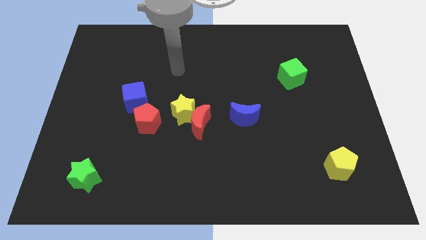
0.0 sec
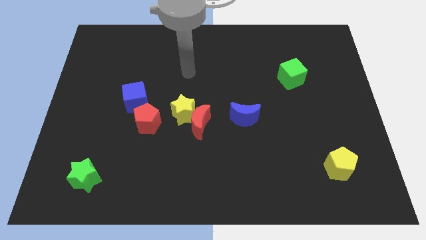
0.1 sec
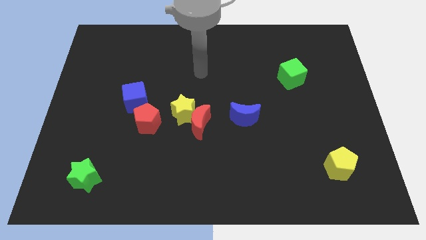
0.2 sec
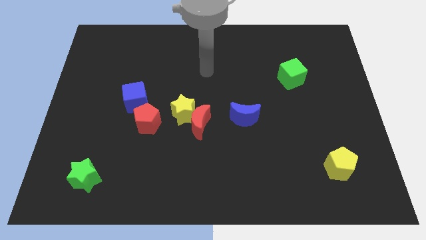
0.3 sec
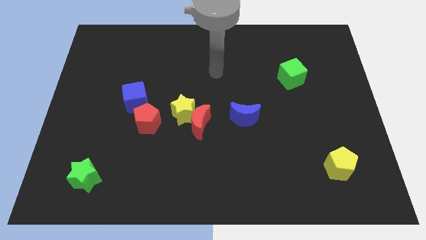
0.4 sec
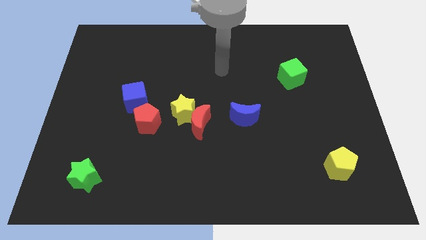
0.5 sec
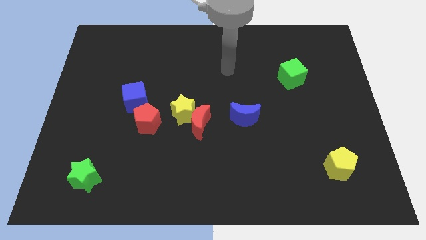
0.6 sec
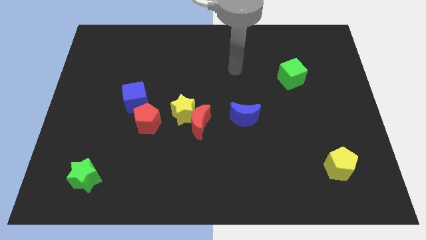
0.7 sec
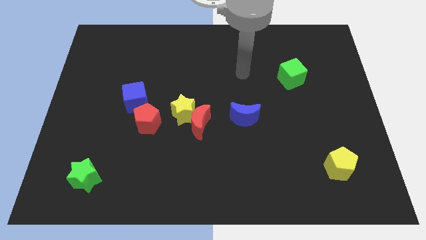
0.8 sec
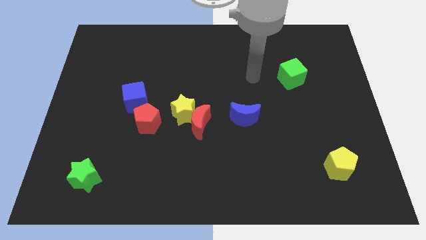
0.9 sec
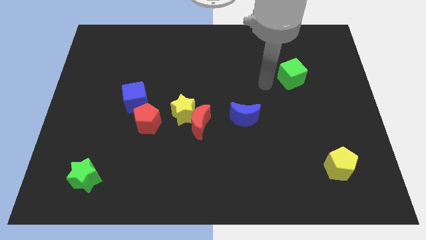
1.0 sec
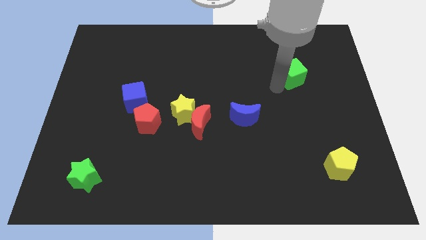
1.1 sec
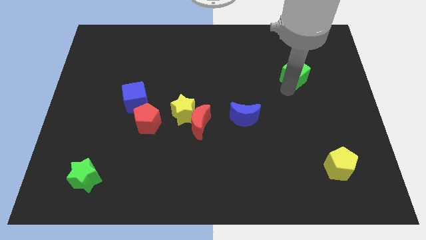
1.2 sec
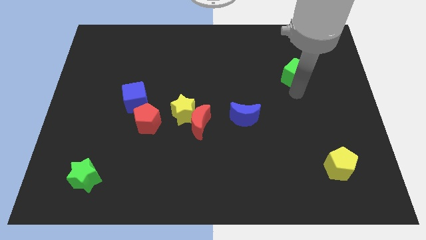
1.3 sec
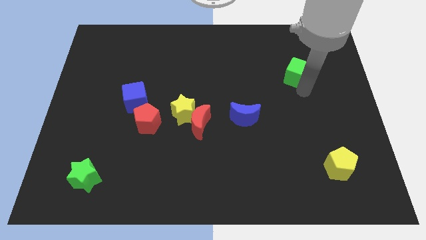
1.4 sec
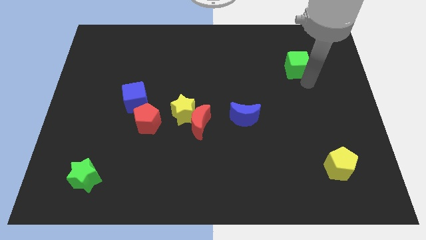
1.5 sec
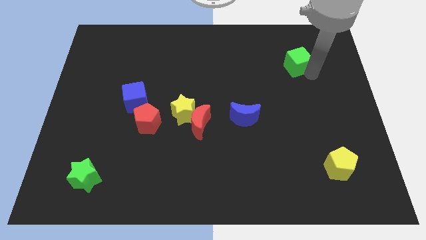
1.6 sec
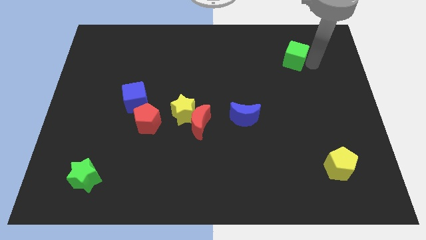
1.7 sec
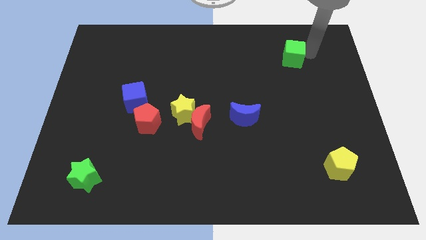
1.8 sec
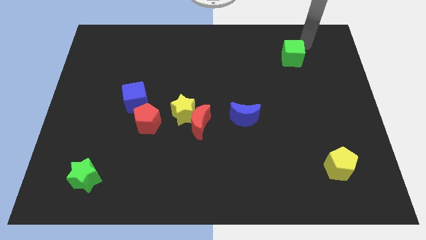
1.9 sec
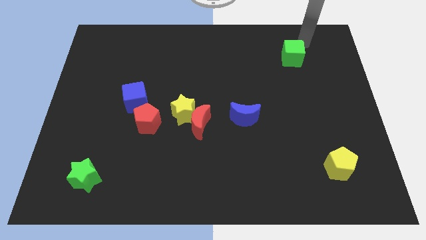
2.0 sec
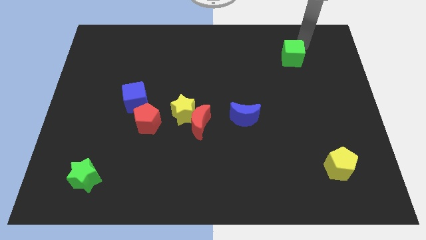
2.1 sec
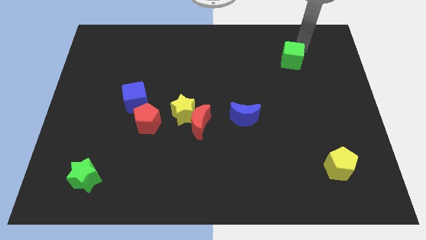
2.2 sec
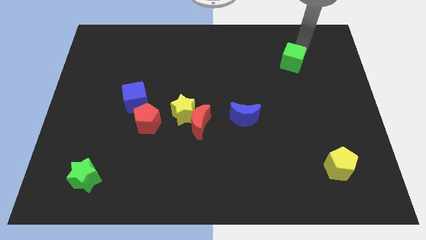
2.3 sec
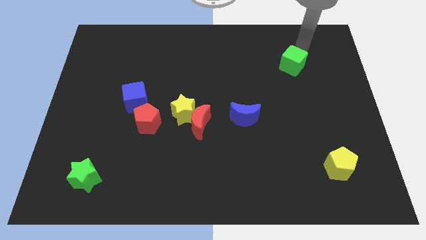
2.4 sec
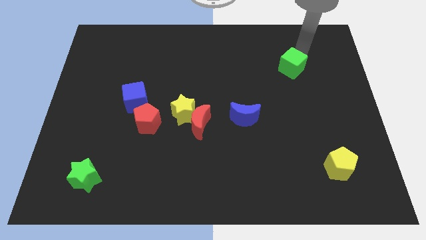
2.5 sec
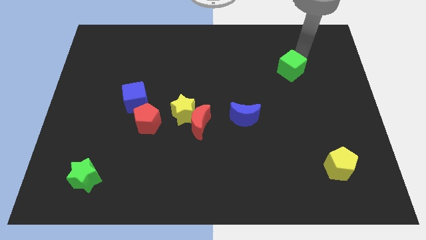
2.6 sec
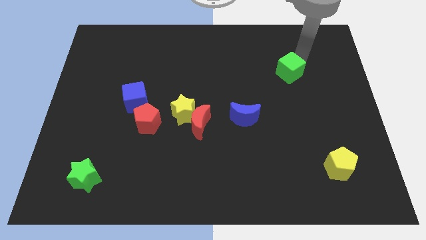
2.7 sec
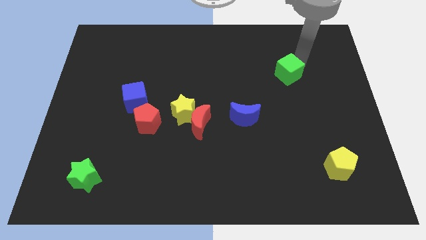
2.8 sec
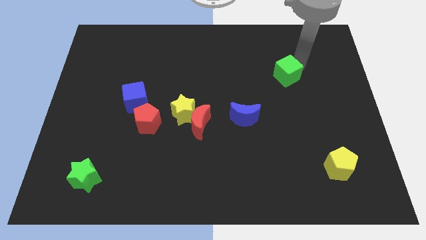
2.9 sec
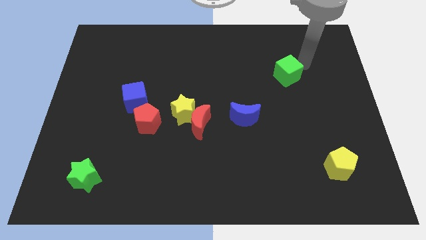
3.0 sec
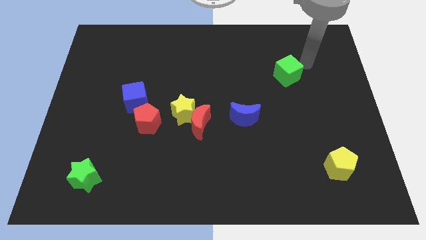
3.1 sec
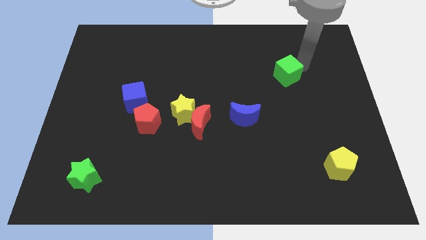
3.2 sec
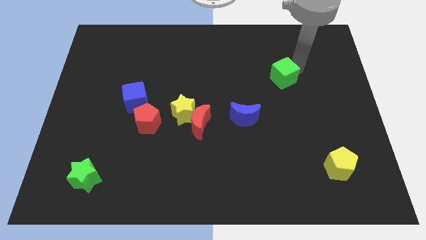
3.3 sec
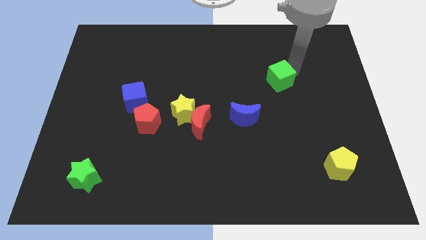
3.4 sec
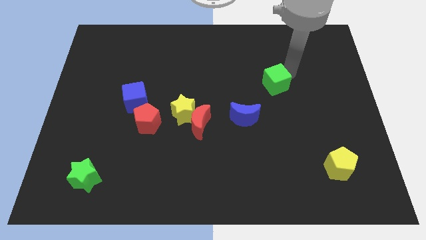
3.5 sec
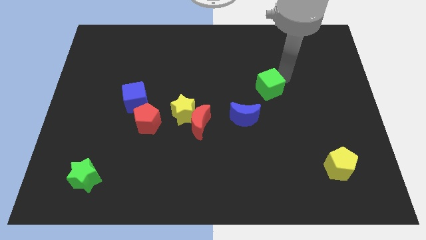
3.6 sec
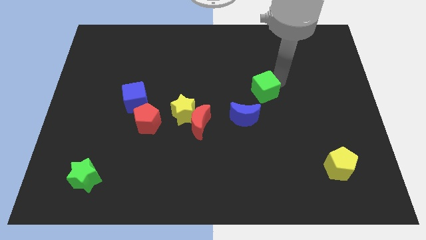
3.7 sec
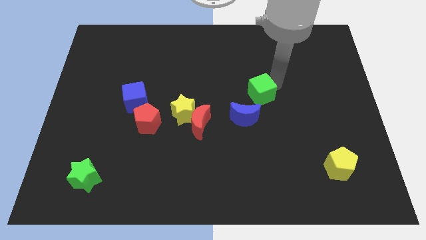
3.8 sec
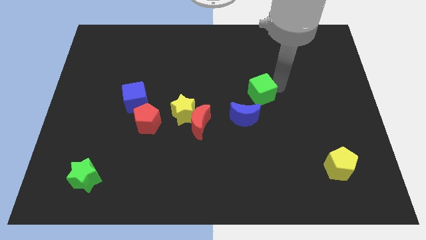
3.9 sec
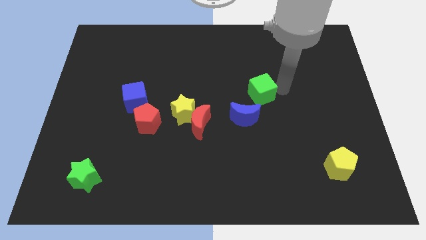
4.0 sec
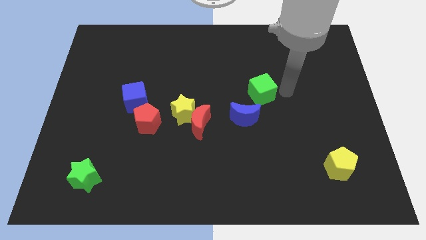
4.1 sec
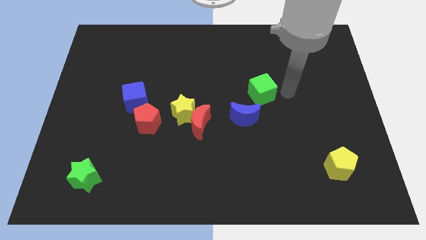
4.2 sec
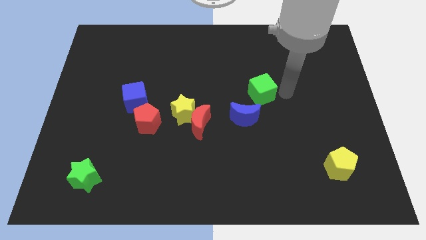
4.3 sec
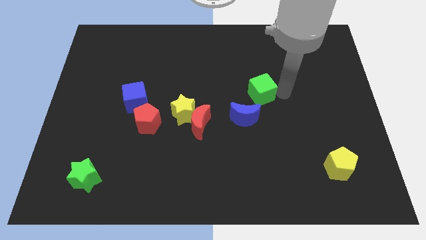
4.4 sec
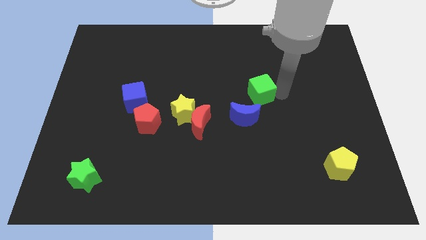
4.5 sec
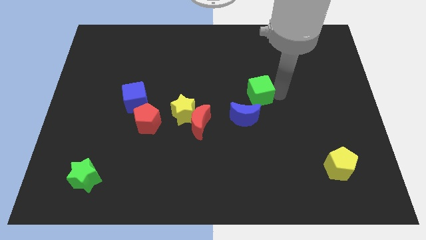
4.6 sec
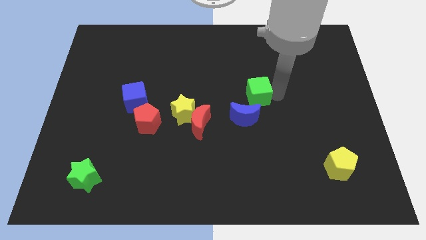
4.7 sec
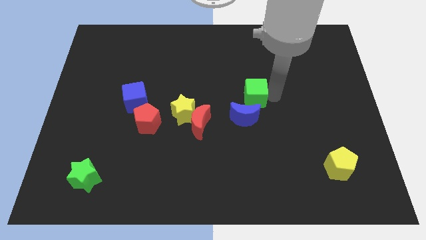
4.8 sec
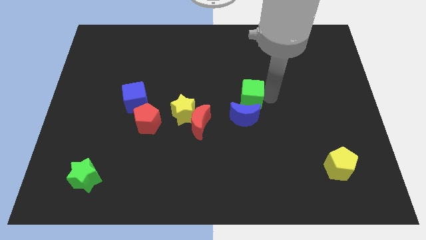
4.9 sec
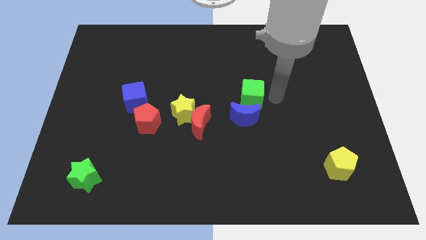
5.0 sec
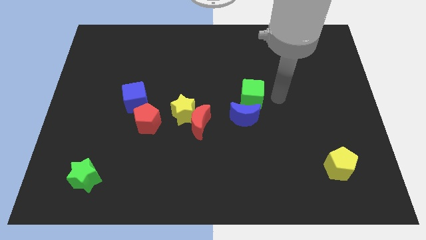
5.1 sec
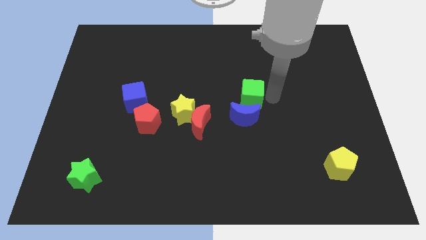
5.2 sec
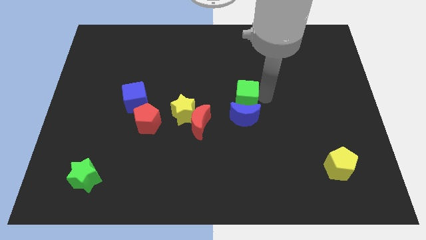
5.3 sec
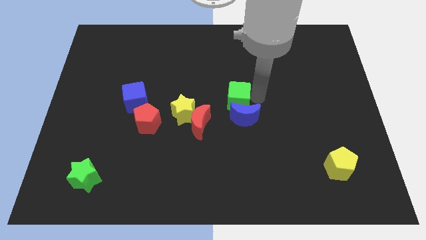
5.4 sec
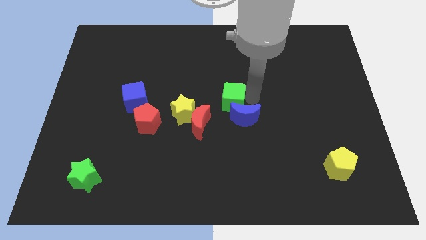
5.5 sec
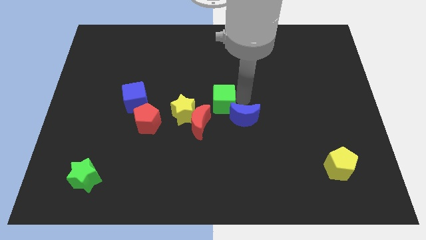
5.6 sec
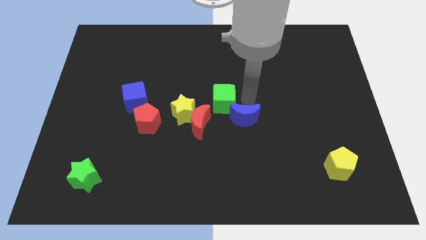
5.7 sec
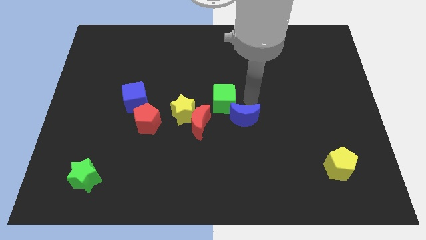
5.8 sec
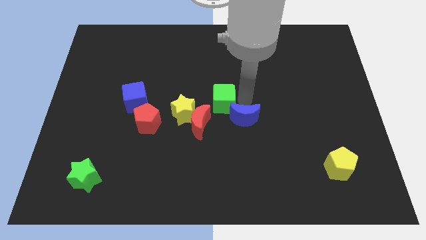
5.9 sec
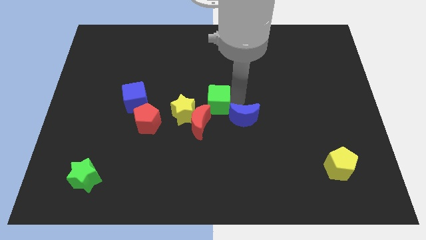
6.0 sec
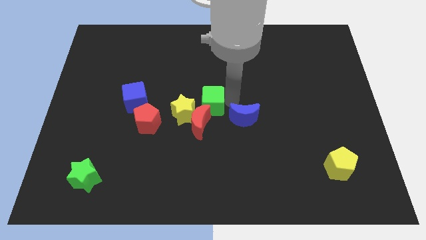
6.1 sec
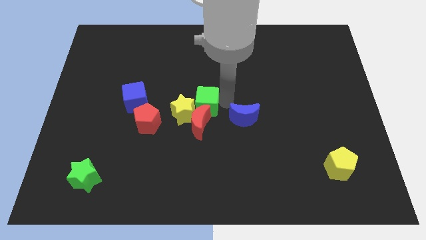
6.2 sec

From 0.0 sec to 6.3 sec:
put the green cube towards the yellow star
